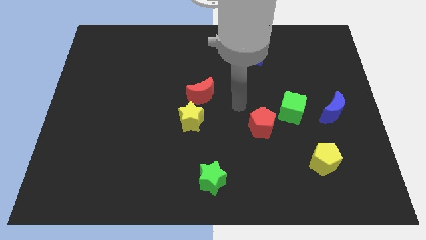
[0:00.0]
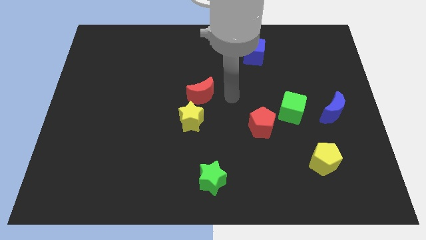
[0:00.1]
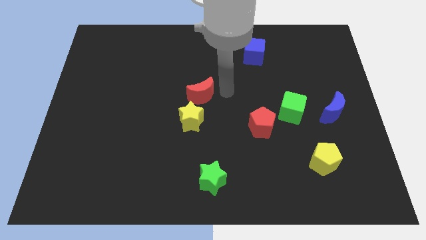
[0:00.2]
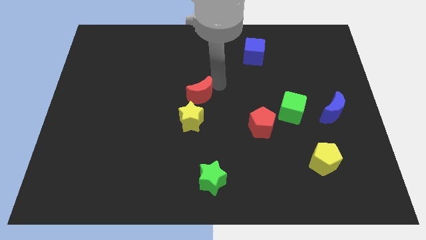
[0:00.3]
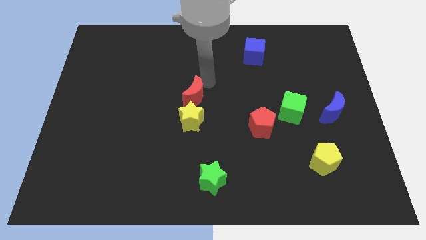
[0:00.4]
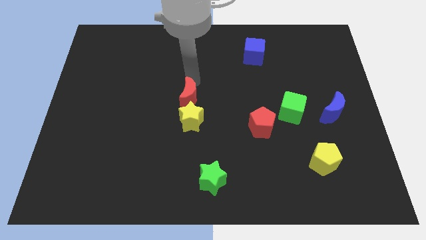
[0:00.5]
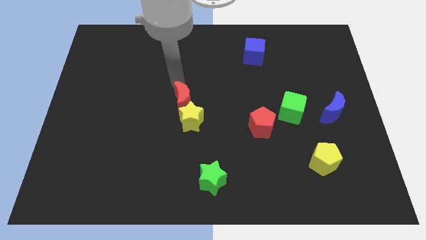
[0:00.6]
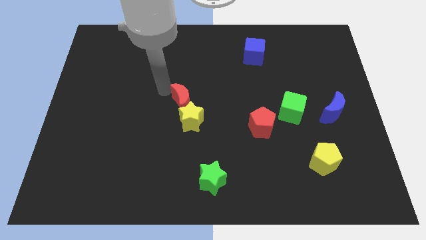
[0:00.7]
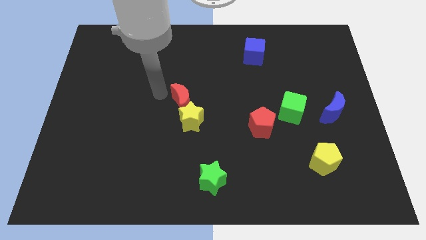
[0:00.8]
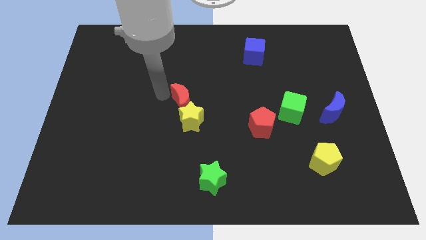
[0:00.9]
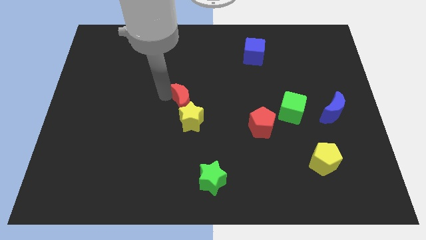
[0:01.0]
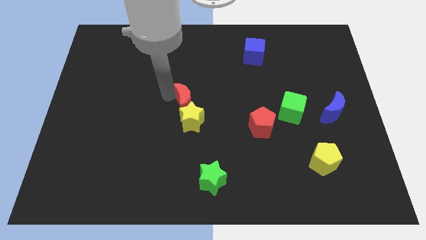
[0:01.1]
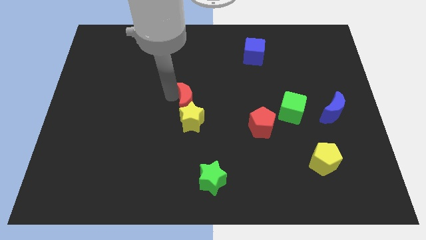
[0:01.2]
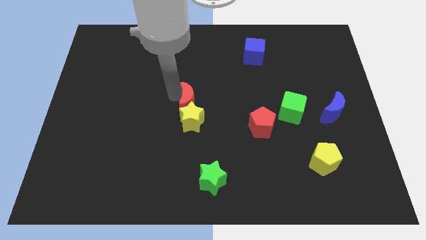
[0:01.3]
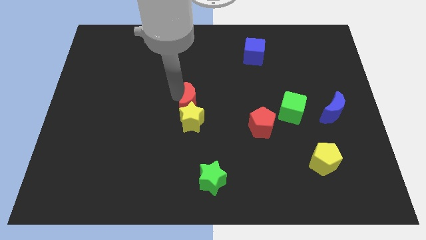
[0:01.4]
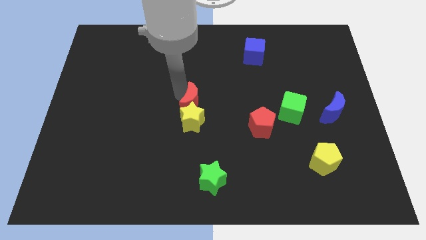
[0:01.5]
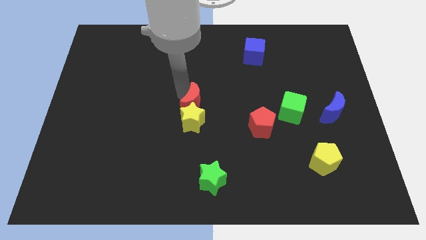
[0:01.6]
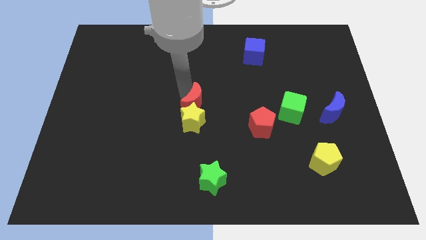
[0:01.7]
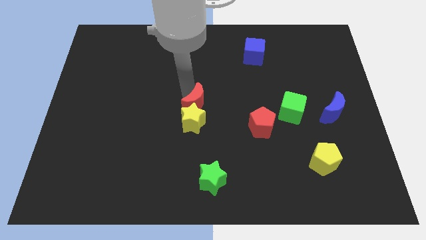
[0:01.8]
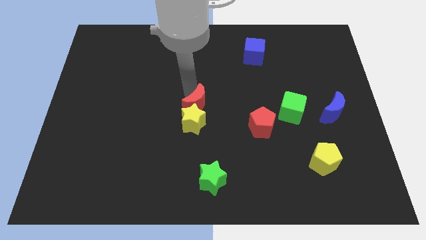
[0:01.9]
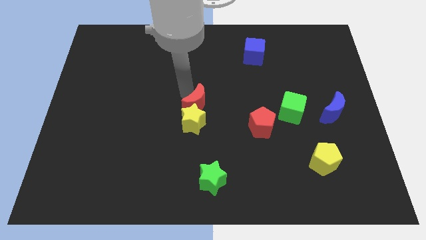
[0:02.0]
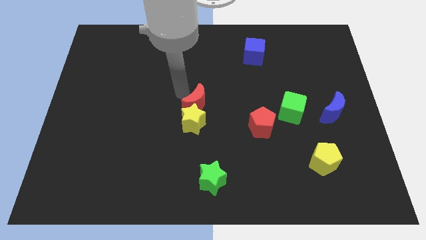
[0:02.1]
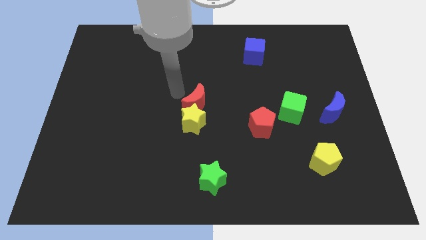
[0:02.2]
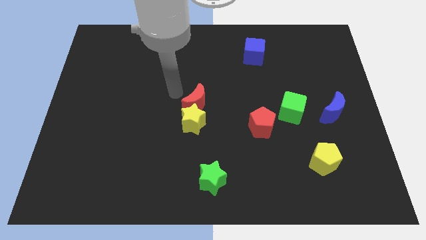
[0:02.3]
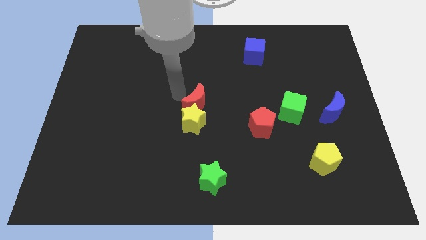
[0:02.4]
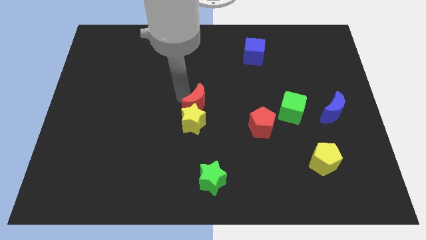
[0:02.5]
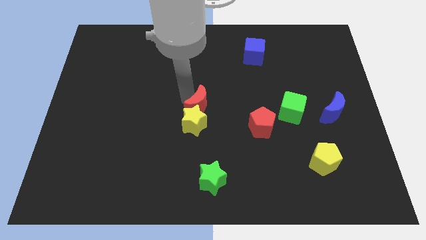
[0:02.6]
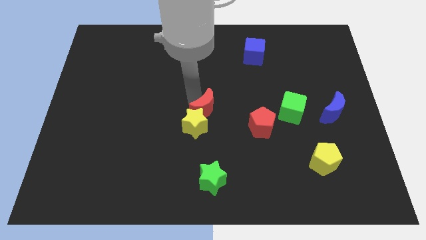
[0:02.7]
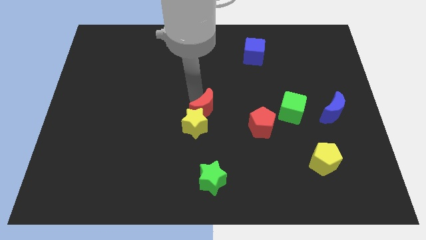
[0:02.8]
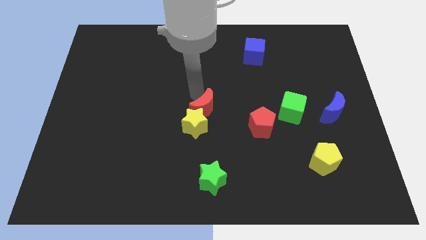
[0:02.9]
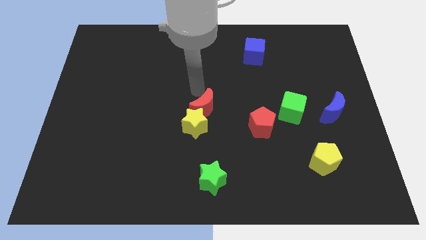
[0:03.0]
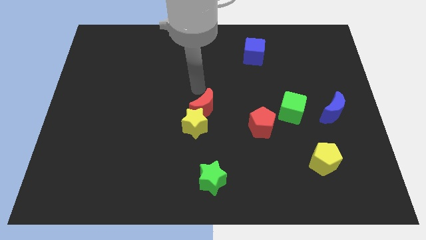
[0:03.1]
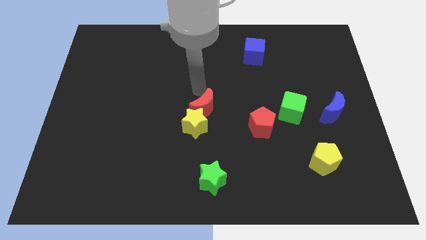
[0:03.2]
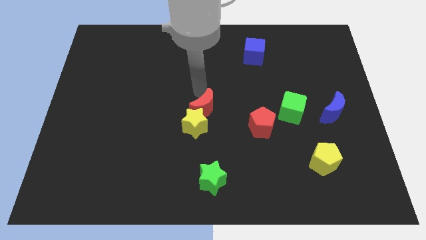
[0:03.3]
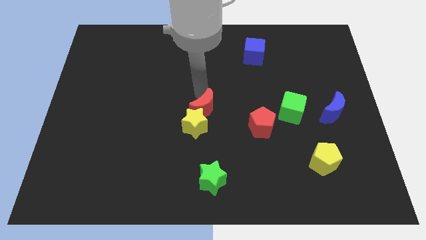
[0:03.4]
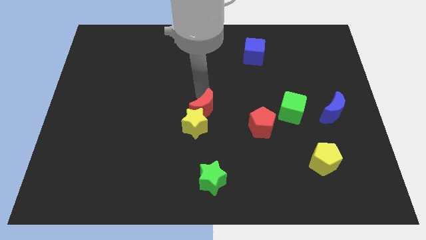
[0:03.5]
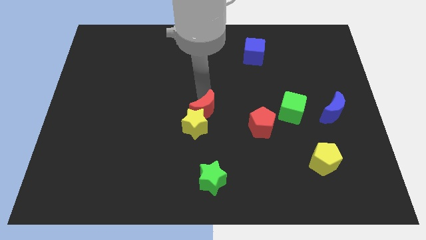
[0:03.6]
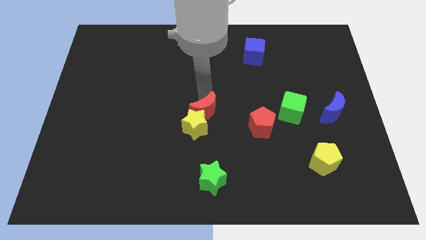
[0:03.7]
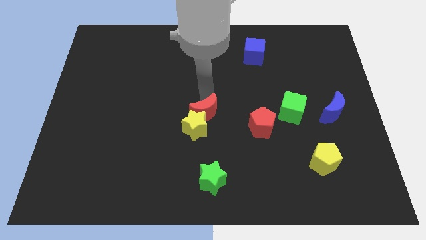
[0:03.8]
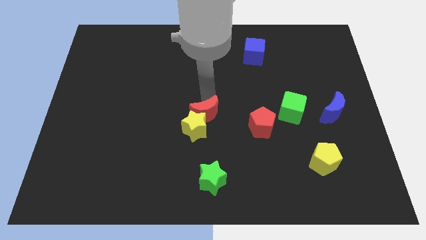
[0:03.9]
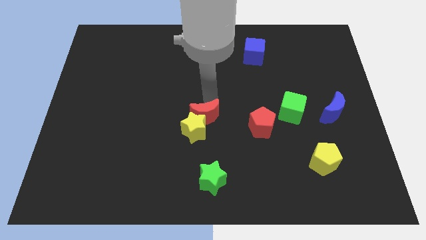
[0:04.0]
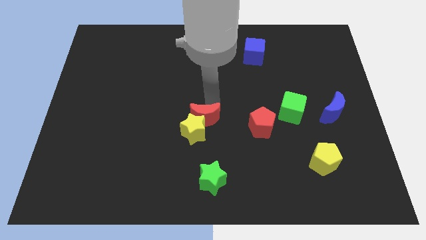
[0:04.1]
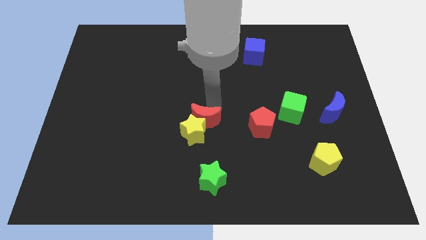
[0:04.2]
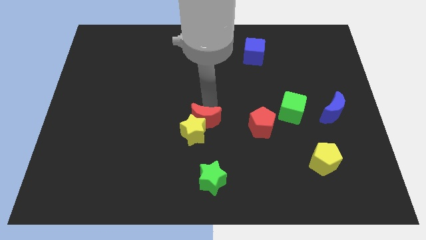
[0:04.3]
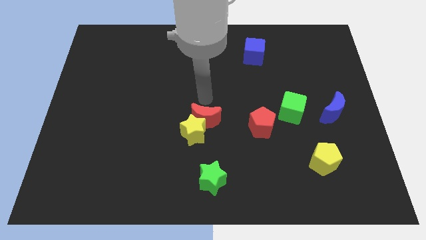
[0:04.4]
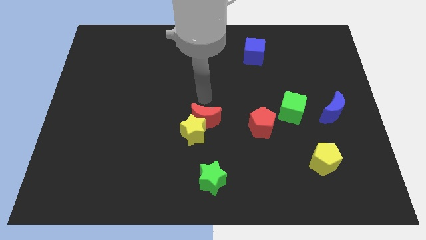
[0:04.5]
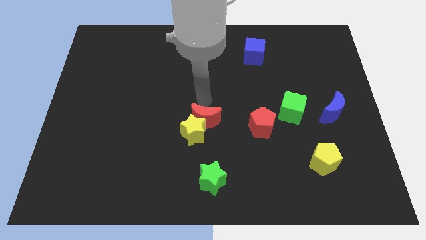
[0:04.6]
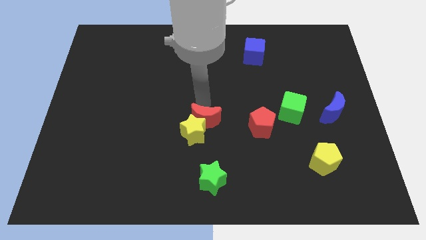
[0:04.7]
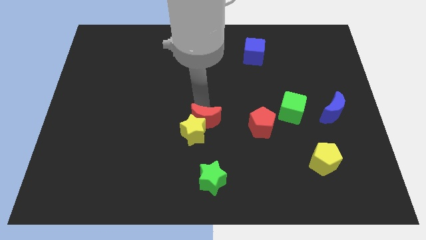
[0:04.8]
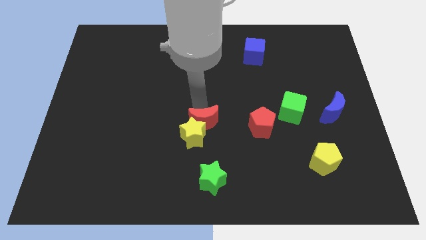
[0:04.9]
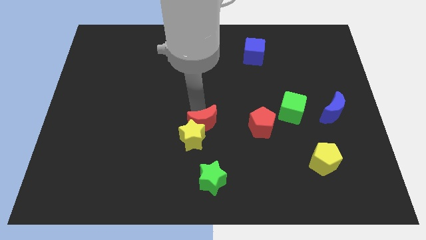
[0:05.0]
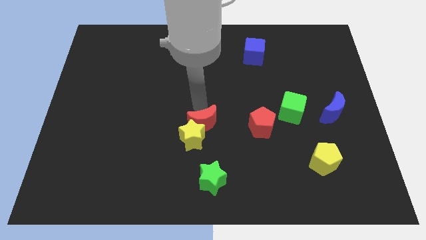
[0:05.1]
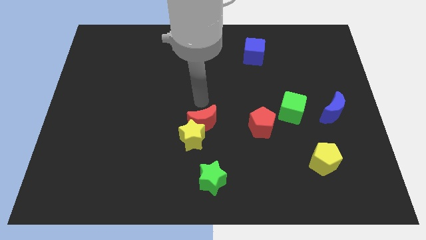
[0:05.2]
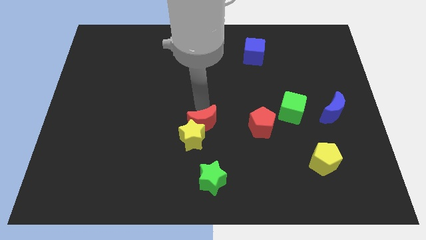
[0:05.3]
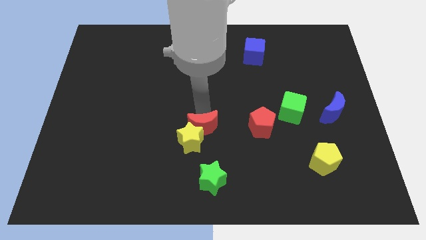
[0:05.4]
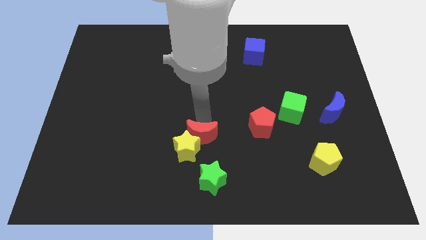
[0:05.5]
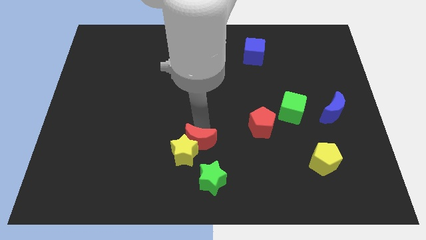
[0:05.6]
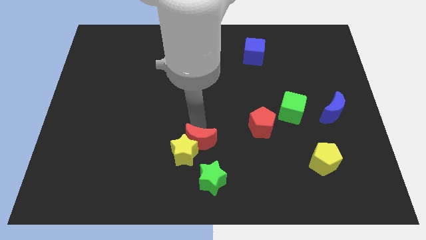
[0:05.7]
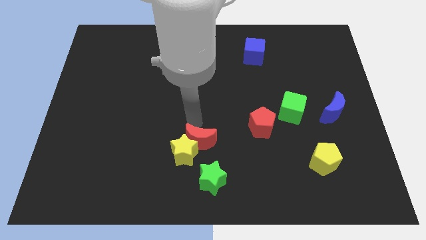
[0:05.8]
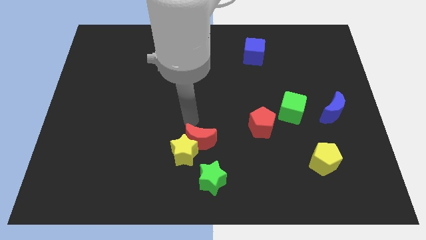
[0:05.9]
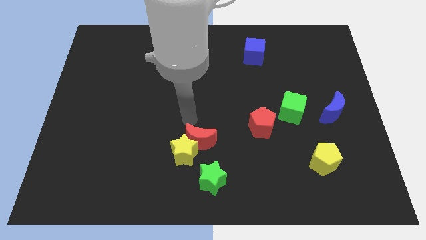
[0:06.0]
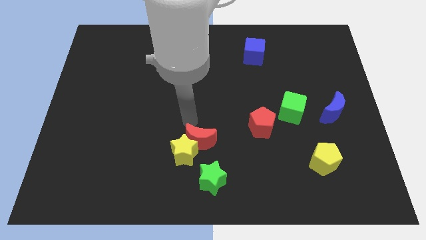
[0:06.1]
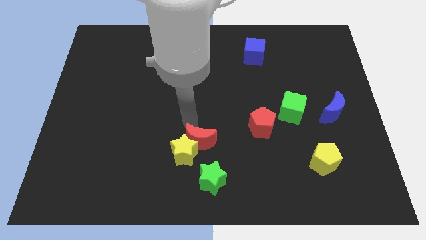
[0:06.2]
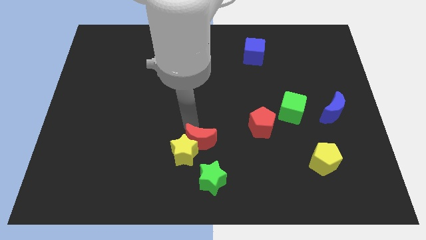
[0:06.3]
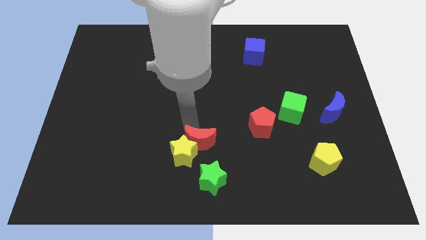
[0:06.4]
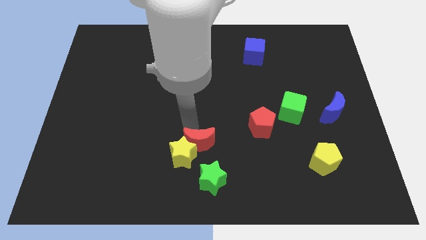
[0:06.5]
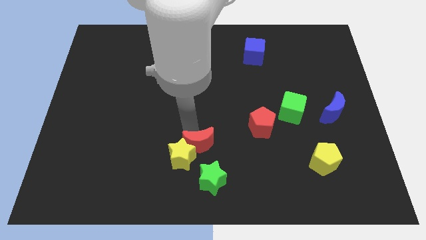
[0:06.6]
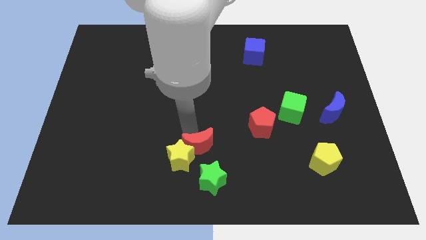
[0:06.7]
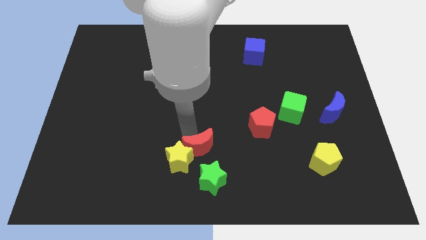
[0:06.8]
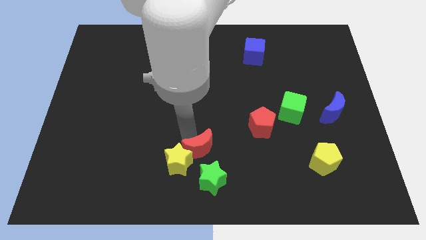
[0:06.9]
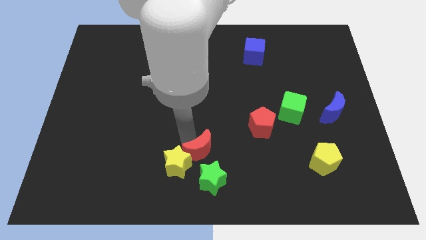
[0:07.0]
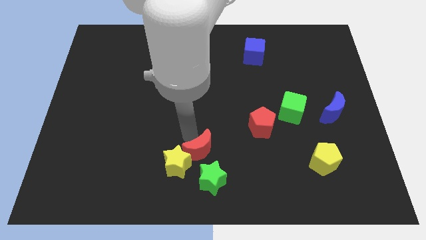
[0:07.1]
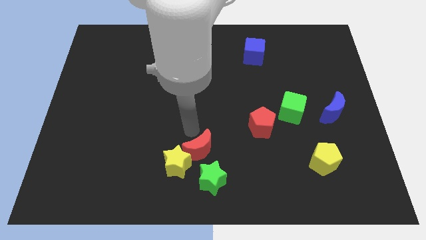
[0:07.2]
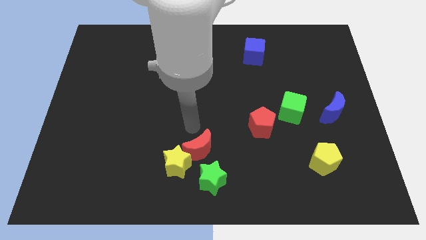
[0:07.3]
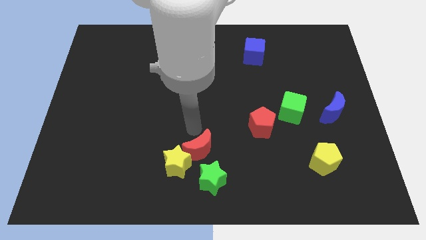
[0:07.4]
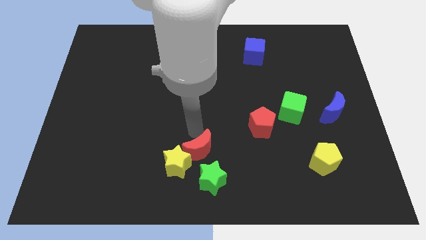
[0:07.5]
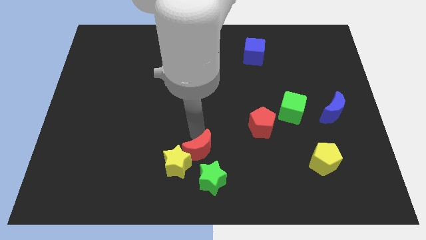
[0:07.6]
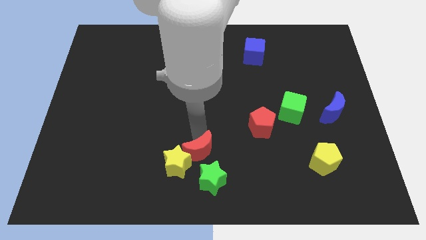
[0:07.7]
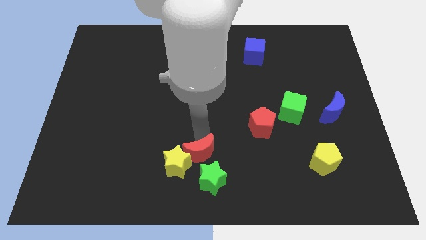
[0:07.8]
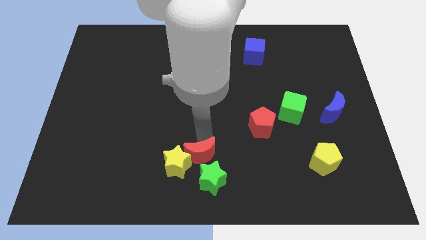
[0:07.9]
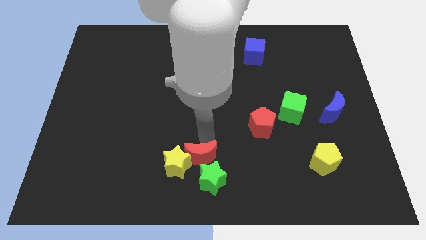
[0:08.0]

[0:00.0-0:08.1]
move the red moon towards the green star
